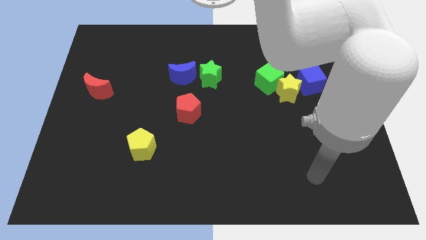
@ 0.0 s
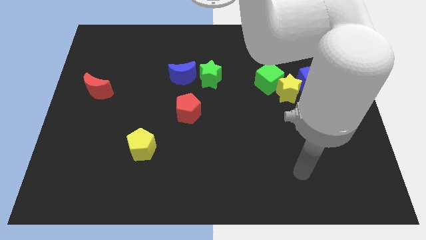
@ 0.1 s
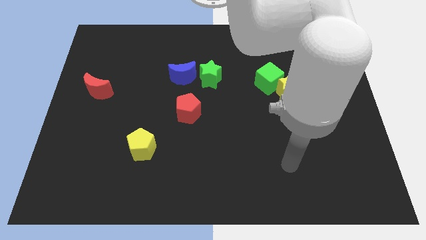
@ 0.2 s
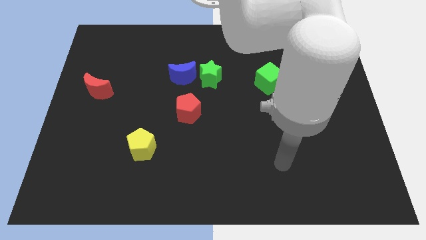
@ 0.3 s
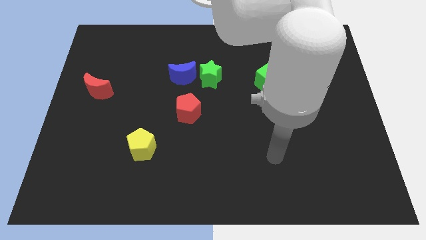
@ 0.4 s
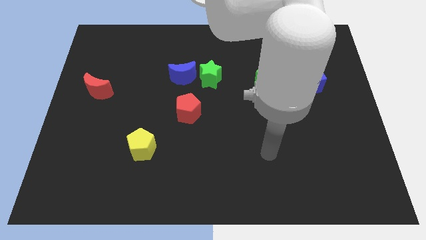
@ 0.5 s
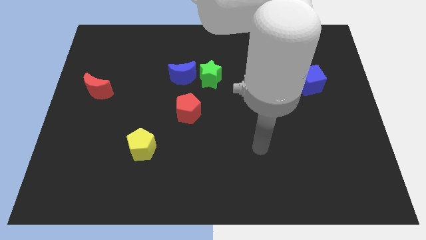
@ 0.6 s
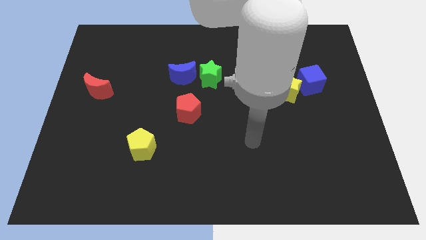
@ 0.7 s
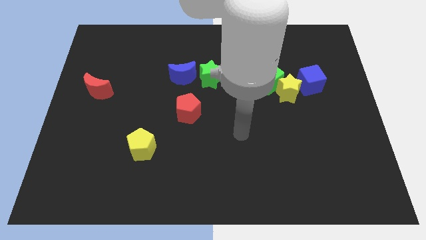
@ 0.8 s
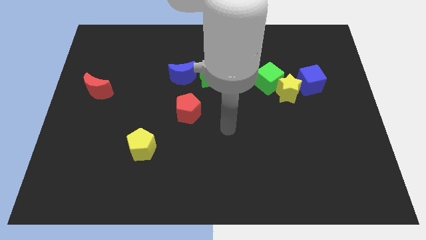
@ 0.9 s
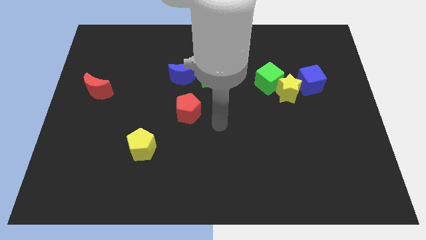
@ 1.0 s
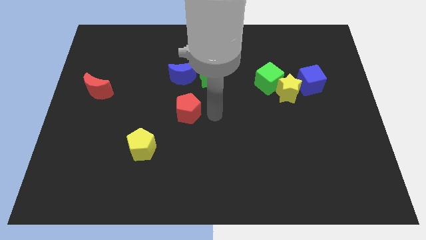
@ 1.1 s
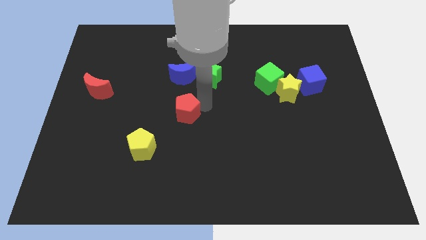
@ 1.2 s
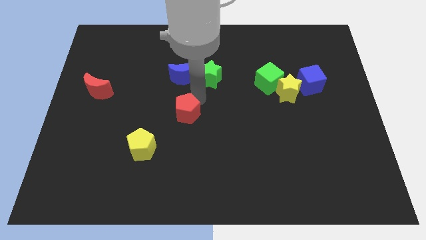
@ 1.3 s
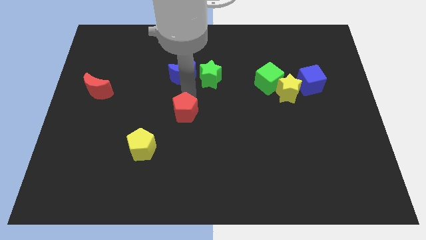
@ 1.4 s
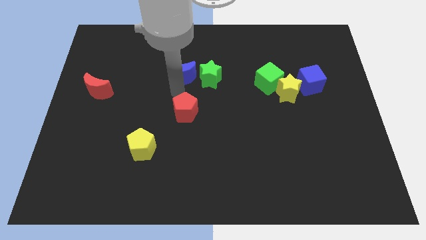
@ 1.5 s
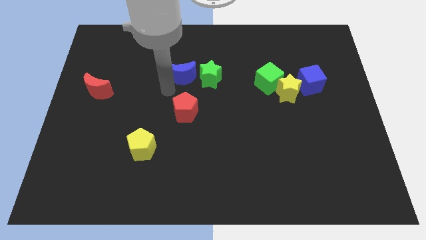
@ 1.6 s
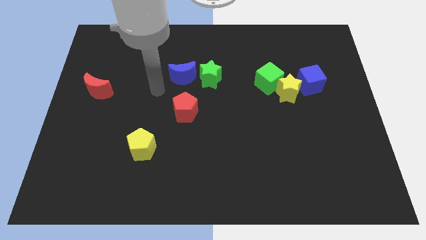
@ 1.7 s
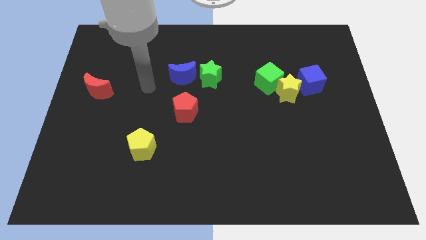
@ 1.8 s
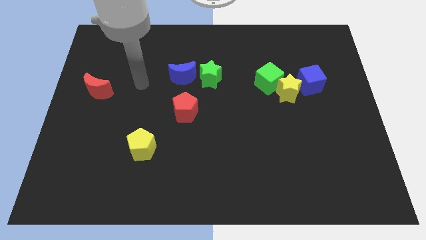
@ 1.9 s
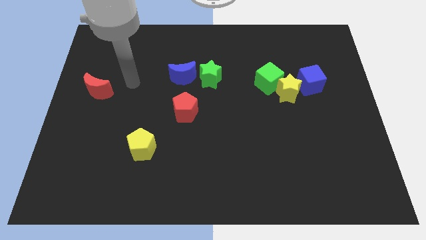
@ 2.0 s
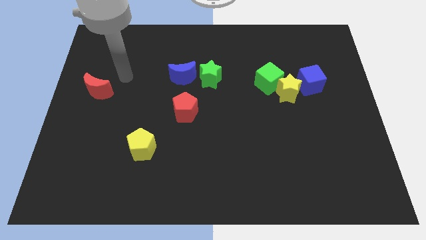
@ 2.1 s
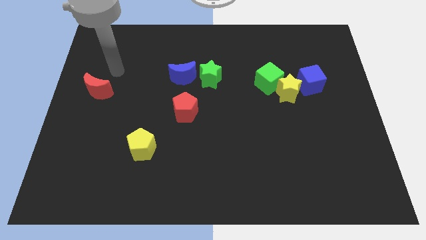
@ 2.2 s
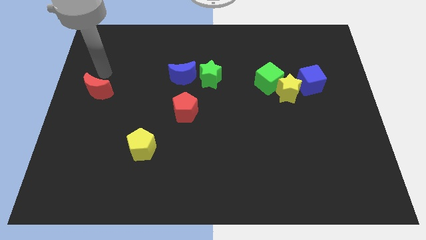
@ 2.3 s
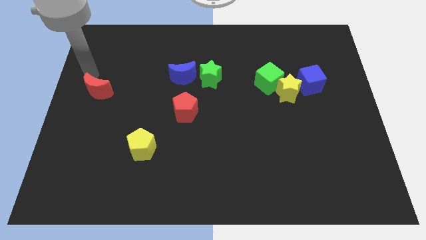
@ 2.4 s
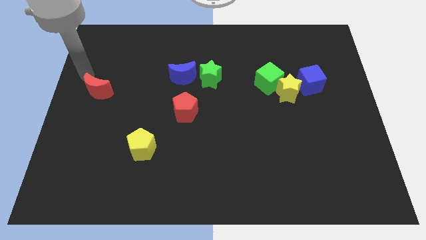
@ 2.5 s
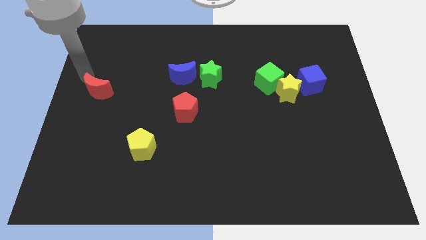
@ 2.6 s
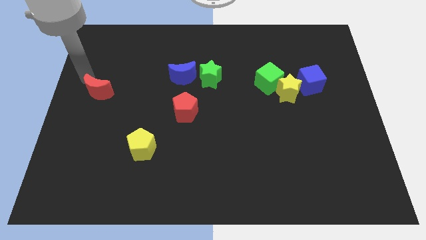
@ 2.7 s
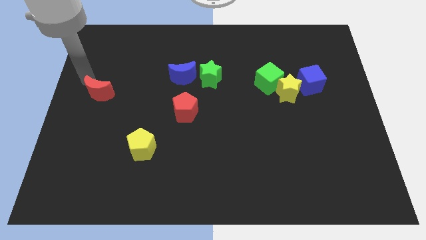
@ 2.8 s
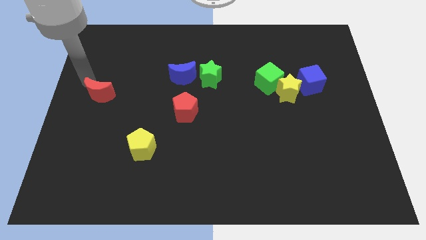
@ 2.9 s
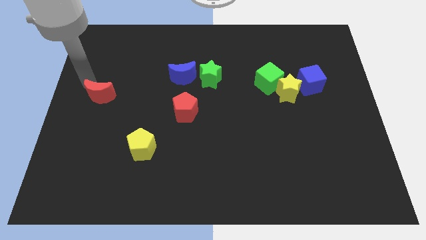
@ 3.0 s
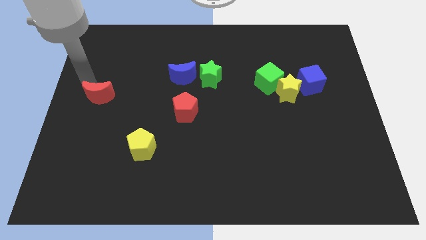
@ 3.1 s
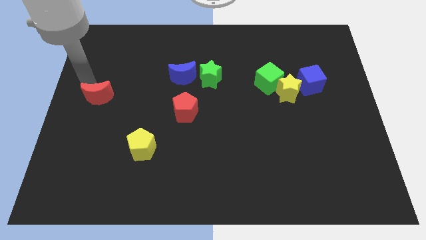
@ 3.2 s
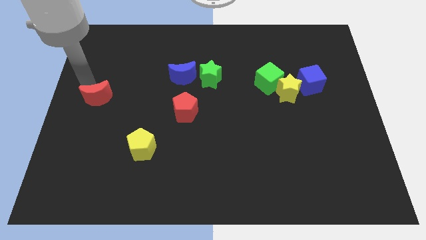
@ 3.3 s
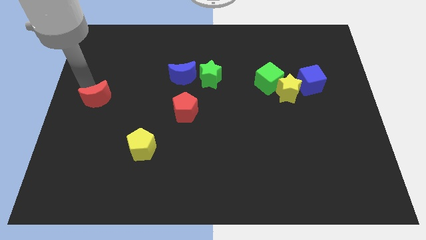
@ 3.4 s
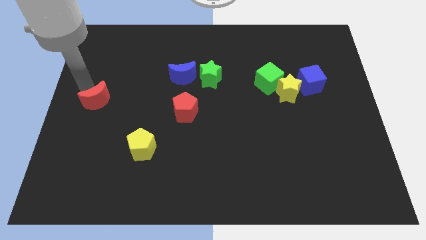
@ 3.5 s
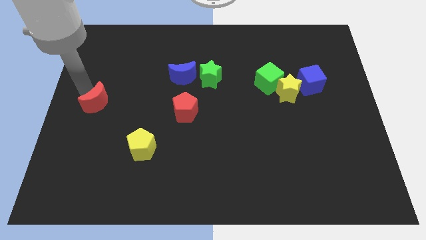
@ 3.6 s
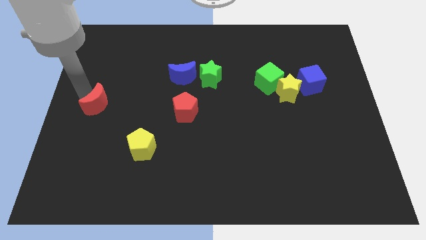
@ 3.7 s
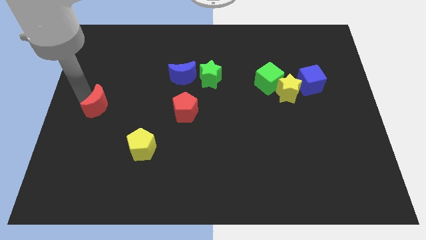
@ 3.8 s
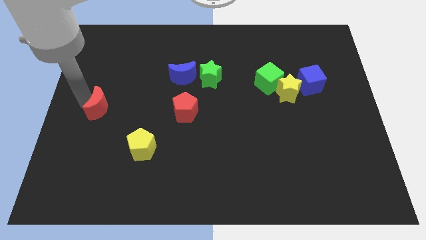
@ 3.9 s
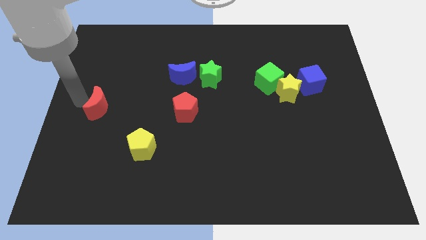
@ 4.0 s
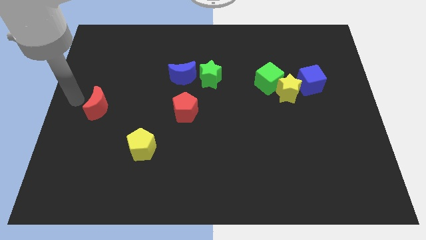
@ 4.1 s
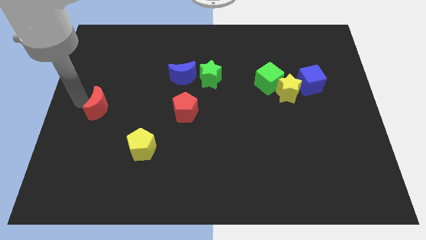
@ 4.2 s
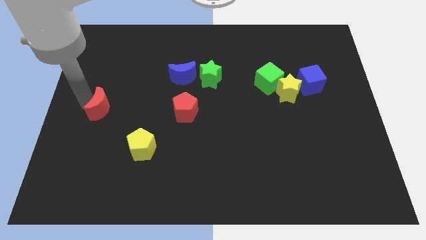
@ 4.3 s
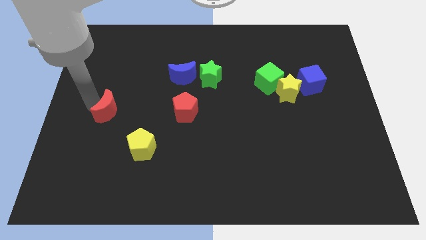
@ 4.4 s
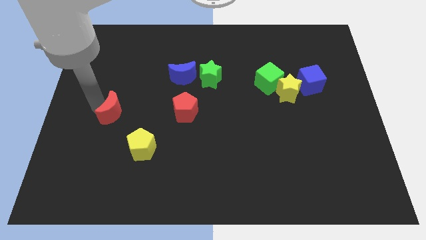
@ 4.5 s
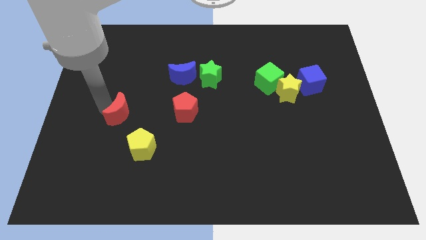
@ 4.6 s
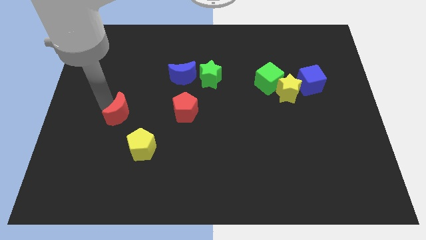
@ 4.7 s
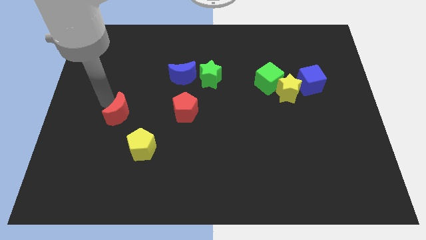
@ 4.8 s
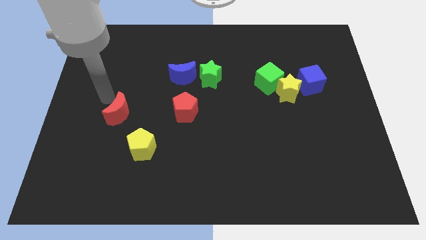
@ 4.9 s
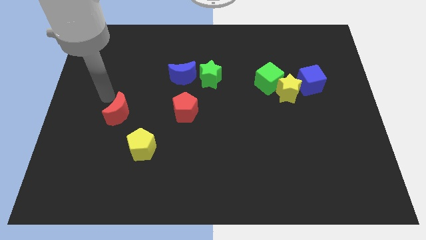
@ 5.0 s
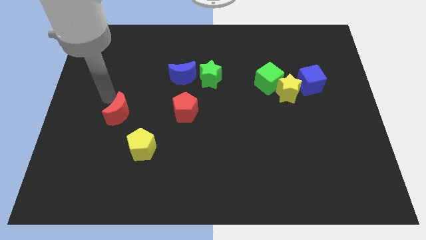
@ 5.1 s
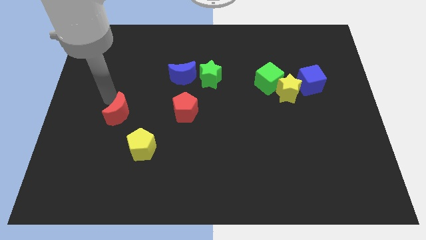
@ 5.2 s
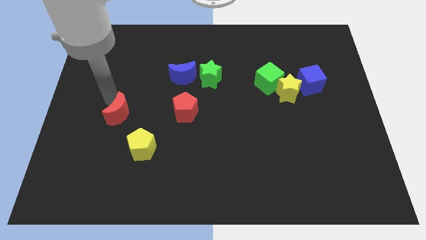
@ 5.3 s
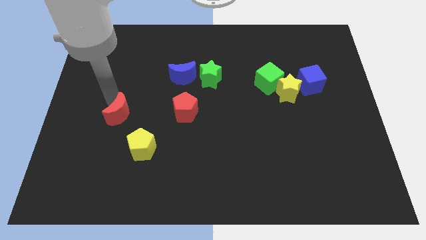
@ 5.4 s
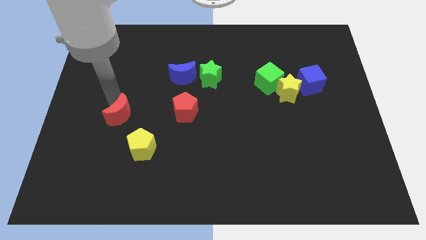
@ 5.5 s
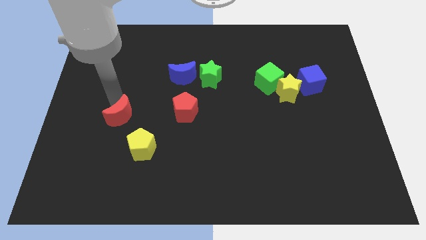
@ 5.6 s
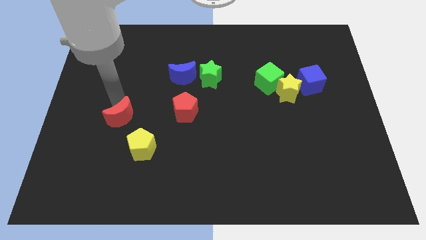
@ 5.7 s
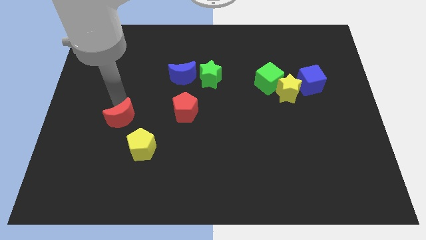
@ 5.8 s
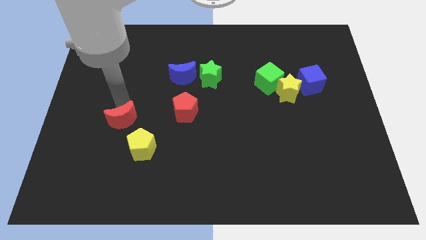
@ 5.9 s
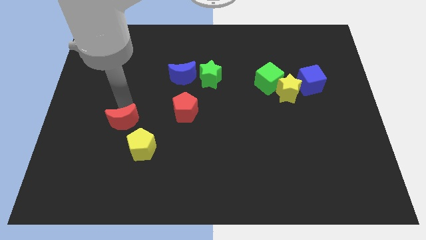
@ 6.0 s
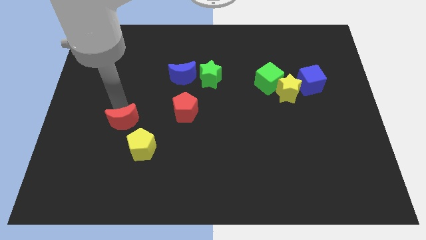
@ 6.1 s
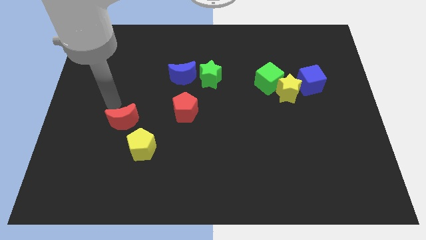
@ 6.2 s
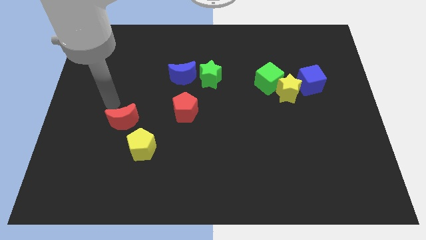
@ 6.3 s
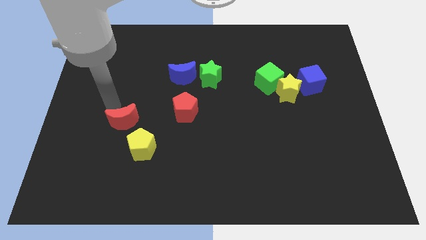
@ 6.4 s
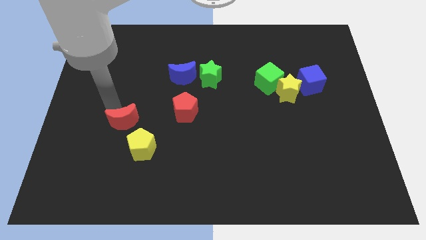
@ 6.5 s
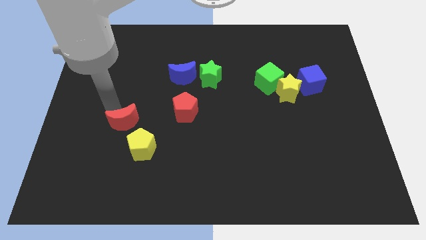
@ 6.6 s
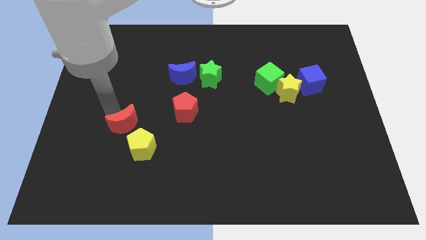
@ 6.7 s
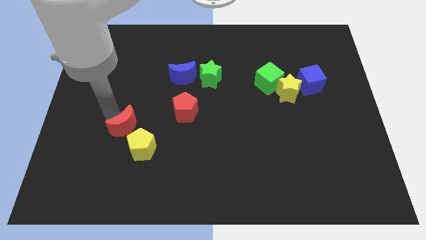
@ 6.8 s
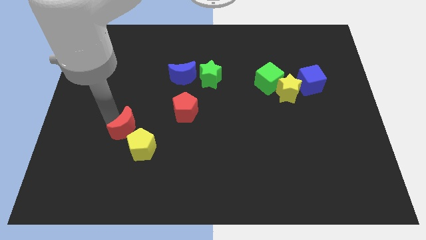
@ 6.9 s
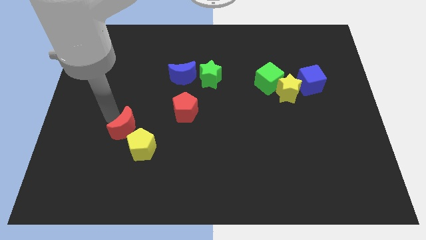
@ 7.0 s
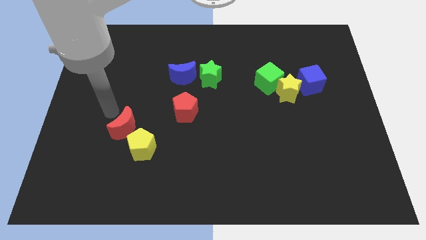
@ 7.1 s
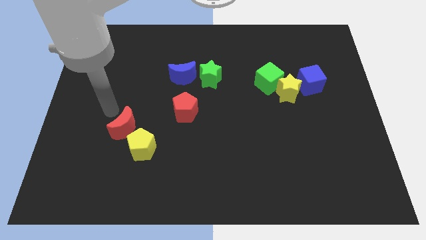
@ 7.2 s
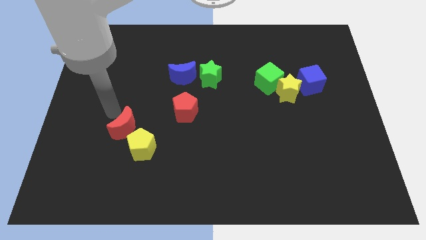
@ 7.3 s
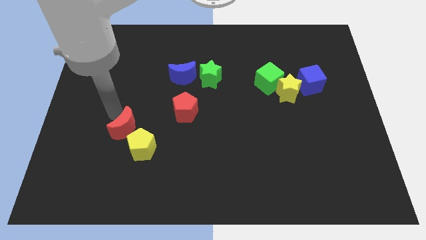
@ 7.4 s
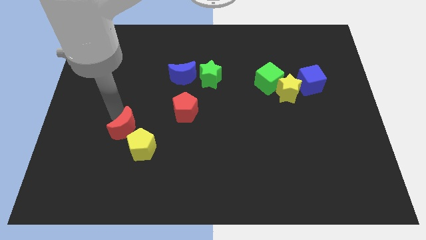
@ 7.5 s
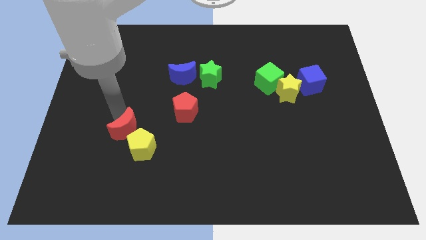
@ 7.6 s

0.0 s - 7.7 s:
slide the red moon towards the yellow pentagon
